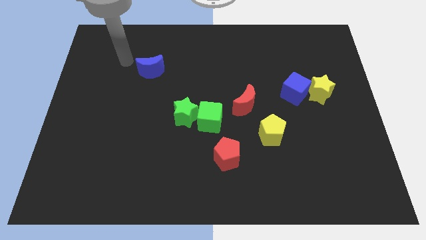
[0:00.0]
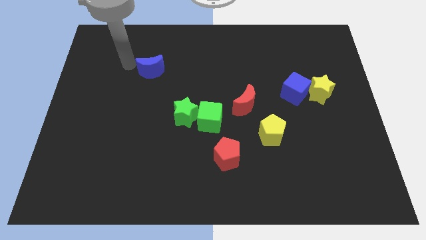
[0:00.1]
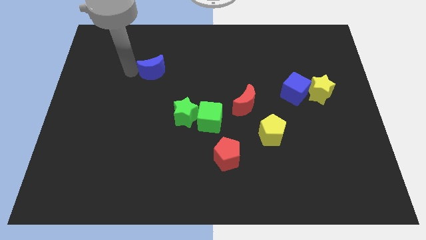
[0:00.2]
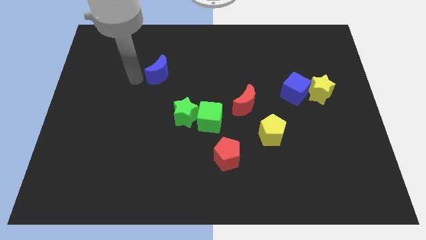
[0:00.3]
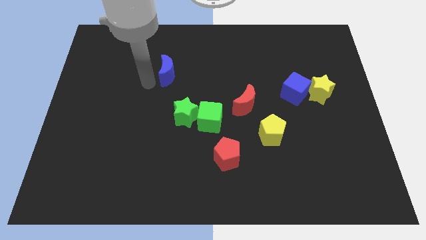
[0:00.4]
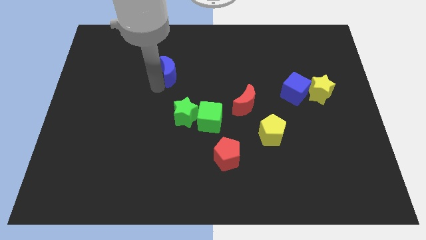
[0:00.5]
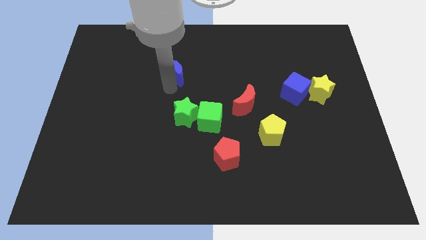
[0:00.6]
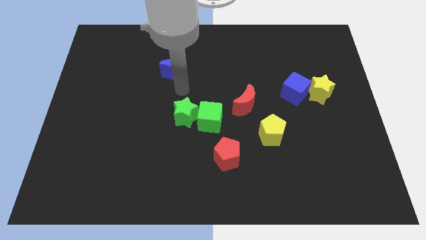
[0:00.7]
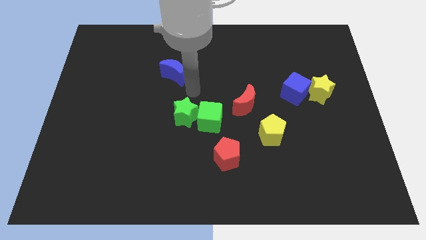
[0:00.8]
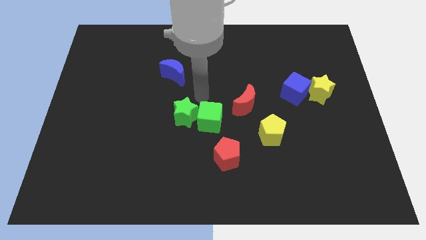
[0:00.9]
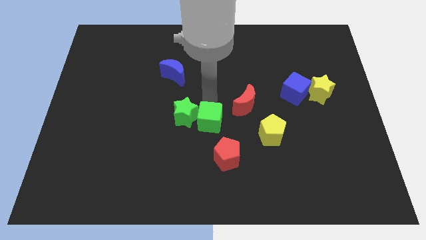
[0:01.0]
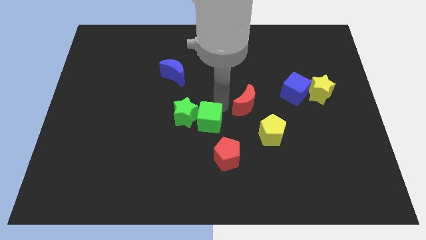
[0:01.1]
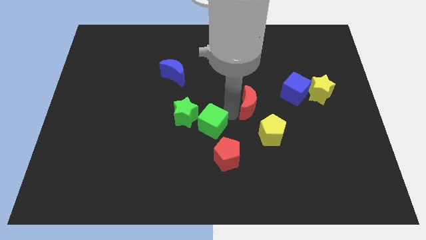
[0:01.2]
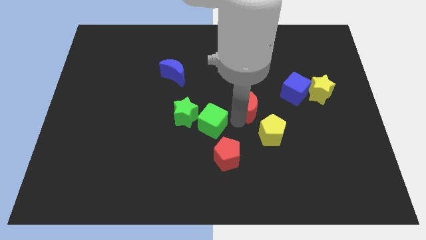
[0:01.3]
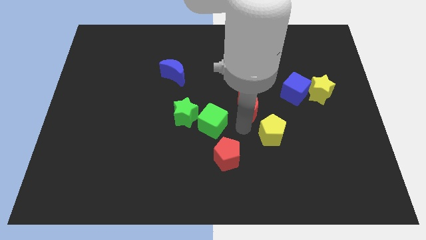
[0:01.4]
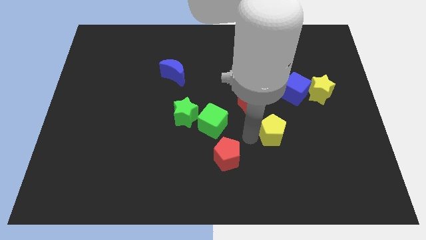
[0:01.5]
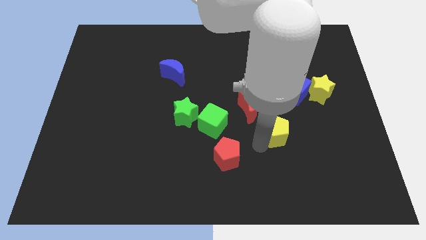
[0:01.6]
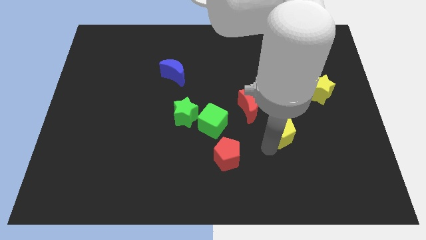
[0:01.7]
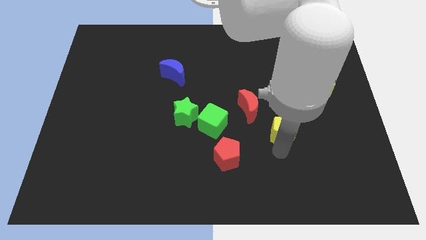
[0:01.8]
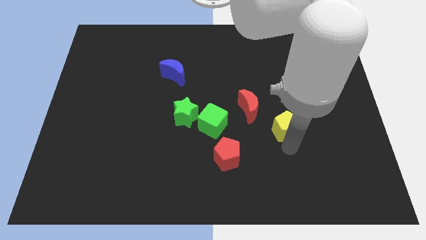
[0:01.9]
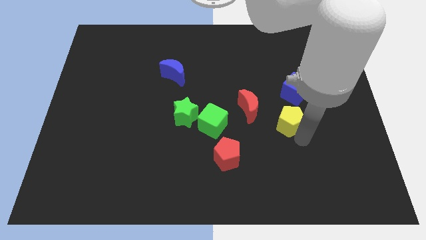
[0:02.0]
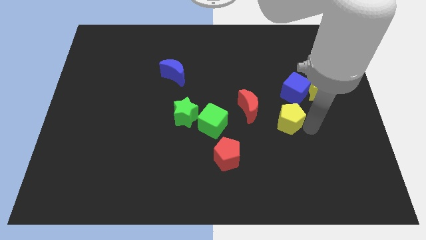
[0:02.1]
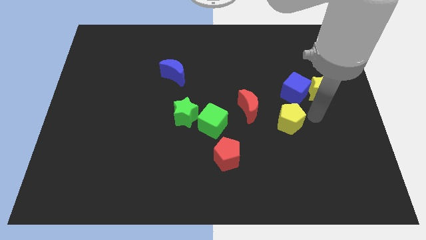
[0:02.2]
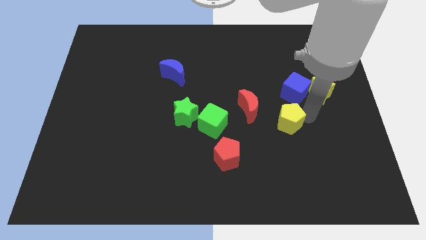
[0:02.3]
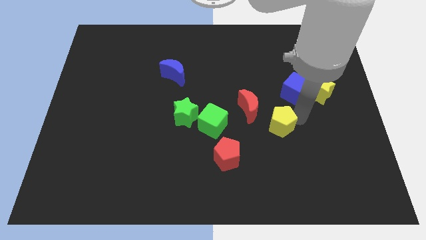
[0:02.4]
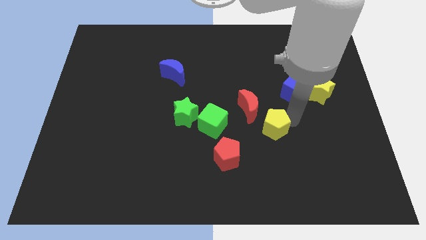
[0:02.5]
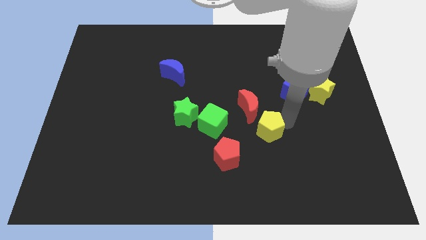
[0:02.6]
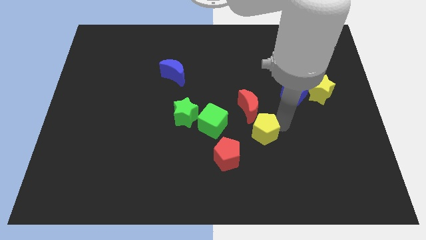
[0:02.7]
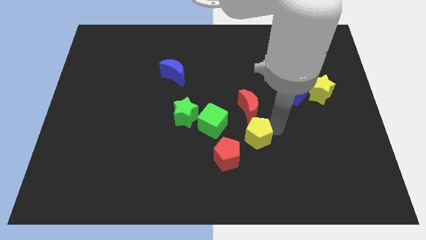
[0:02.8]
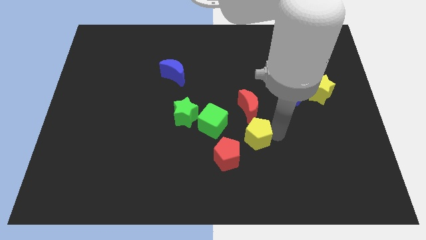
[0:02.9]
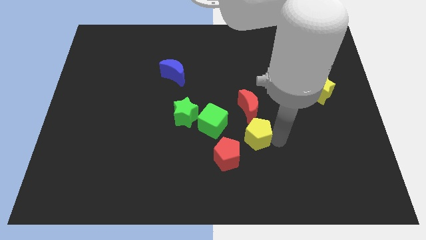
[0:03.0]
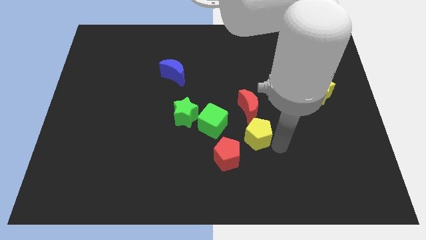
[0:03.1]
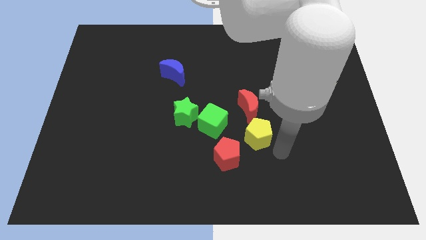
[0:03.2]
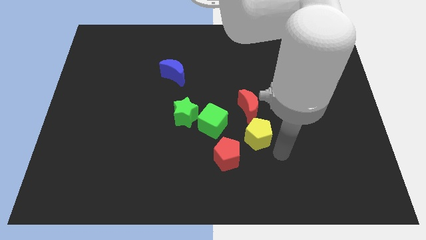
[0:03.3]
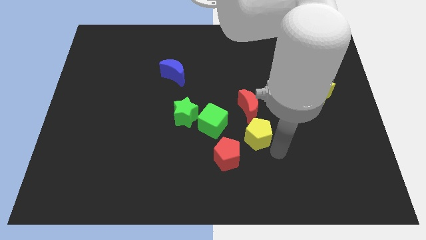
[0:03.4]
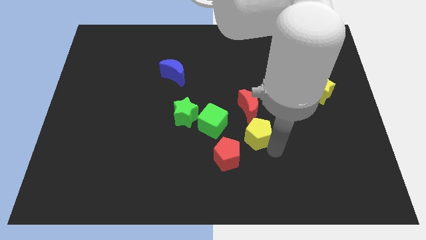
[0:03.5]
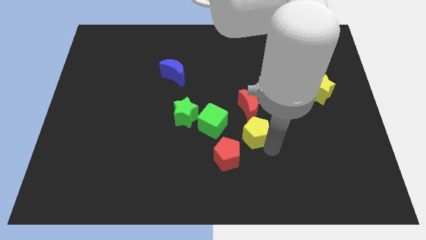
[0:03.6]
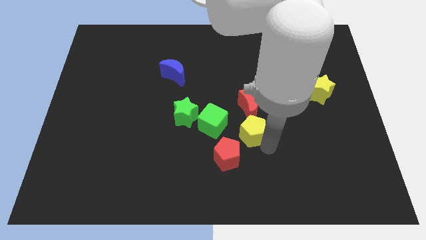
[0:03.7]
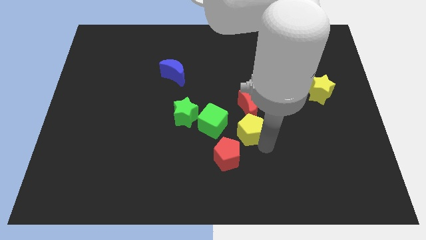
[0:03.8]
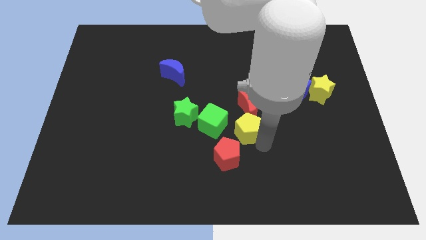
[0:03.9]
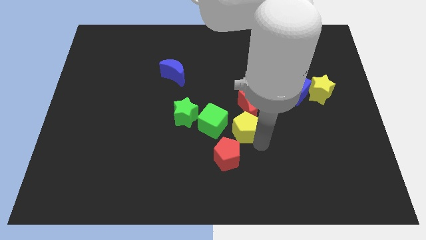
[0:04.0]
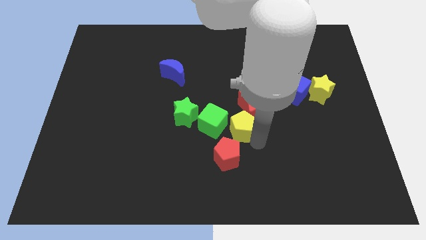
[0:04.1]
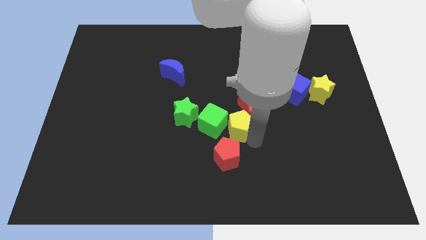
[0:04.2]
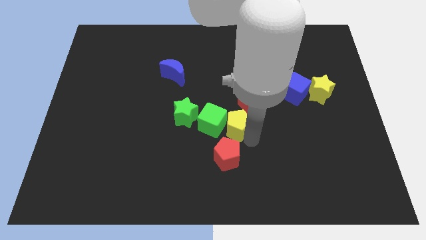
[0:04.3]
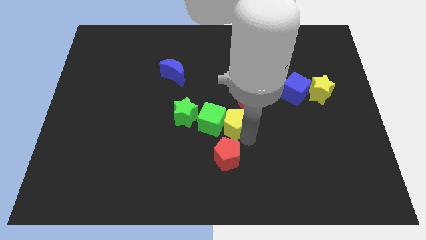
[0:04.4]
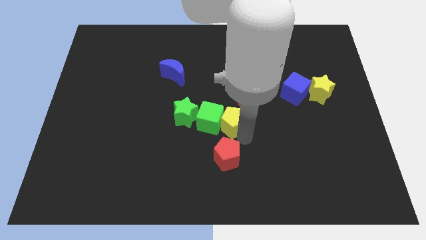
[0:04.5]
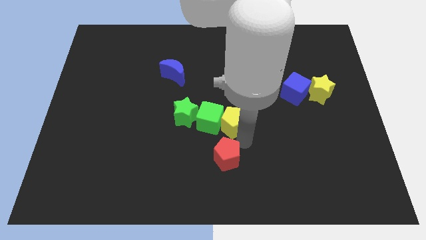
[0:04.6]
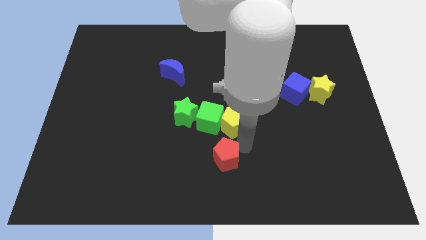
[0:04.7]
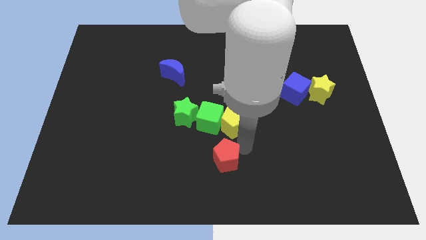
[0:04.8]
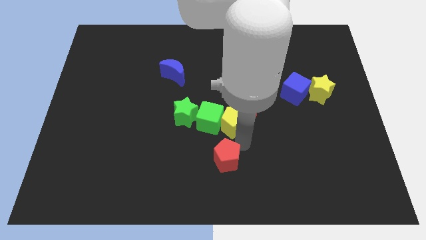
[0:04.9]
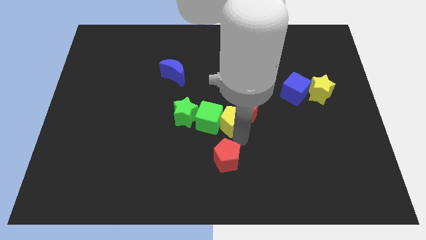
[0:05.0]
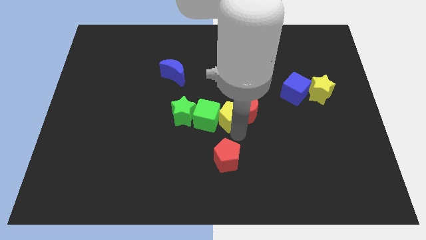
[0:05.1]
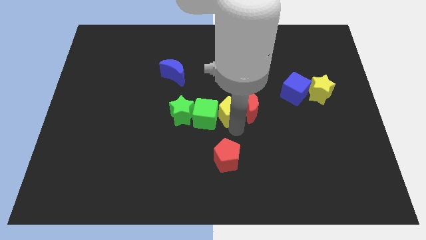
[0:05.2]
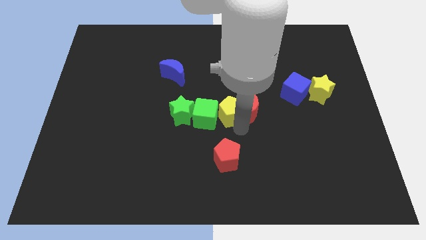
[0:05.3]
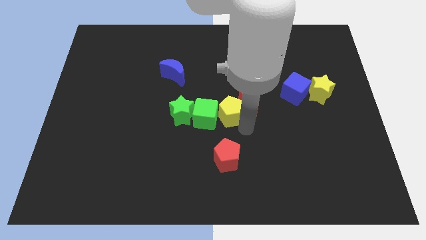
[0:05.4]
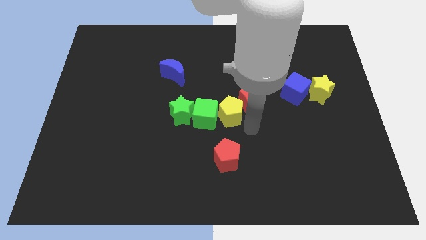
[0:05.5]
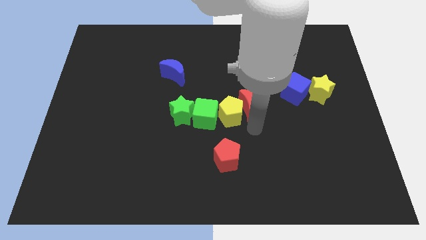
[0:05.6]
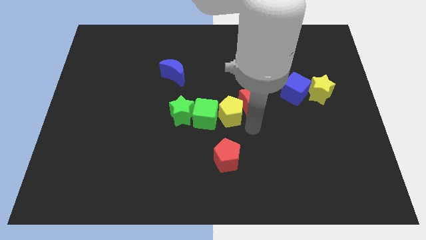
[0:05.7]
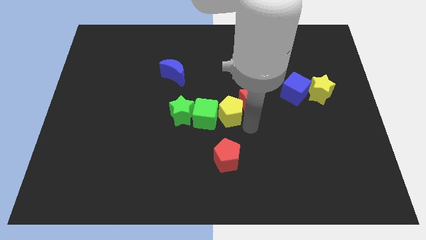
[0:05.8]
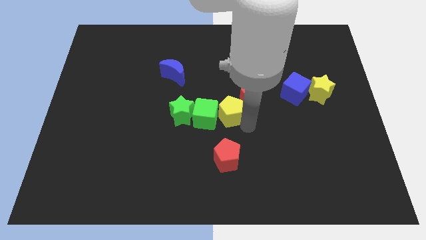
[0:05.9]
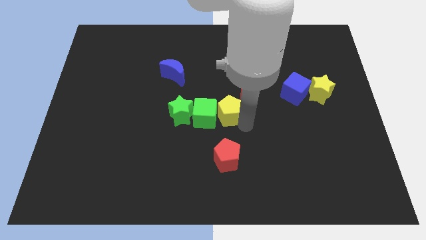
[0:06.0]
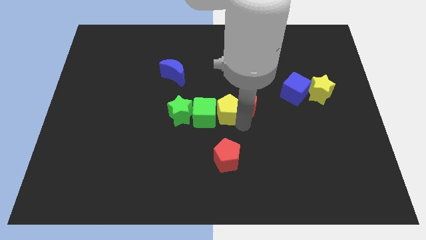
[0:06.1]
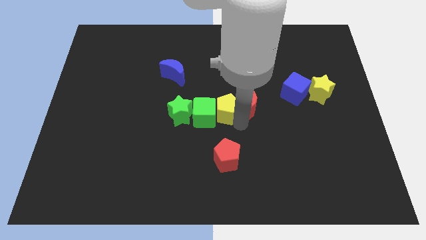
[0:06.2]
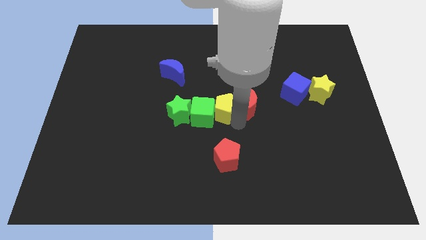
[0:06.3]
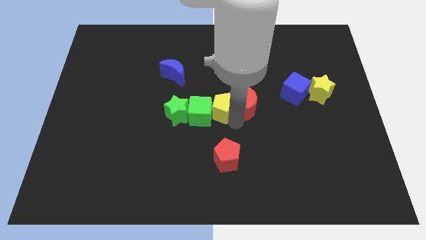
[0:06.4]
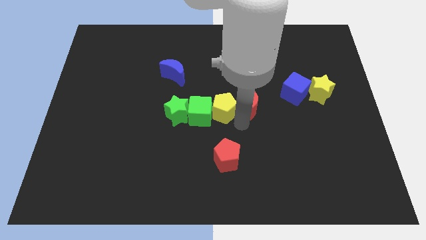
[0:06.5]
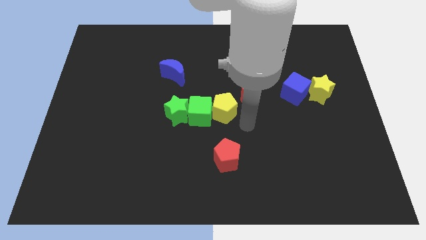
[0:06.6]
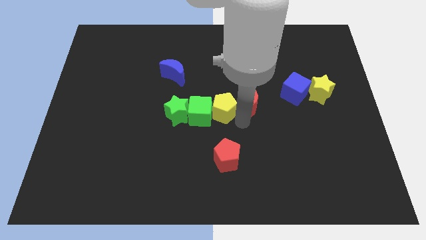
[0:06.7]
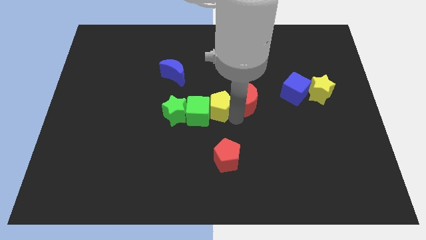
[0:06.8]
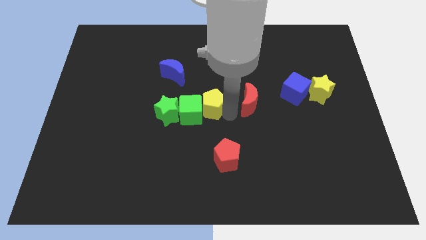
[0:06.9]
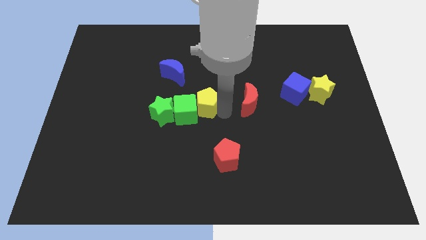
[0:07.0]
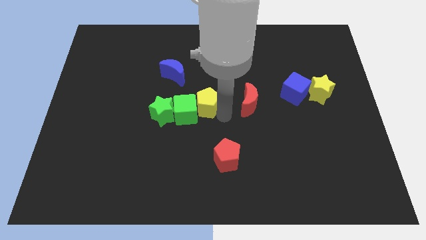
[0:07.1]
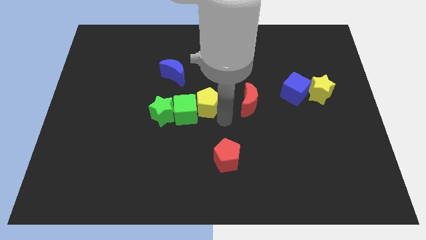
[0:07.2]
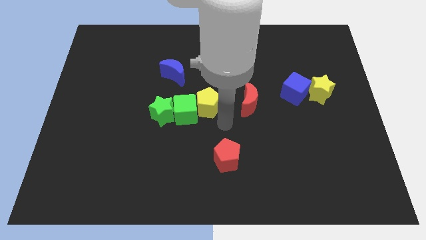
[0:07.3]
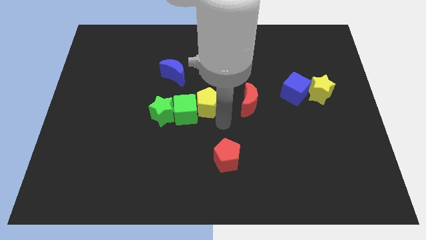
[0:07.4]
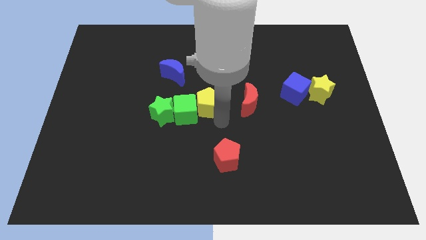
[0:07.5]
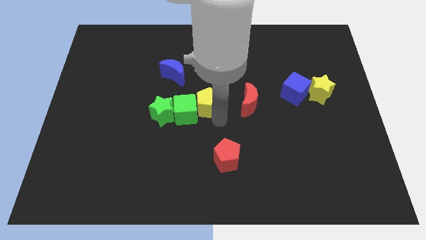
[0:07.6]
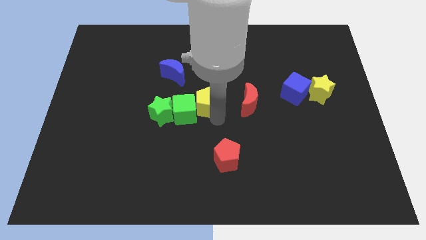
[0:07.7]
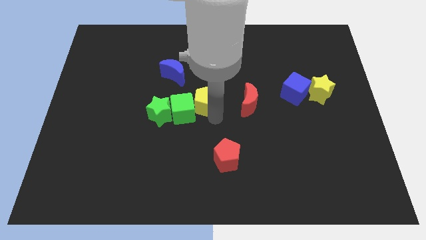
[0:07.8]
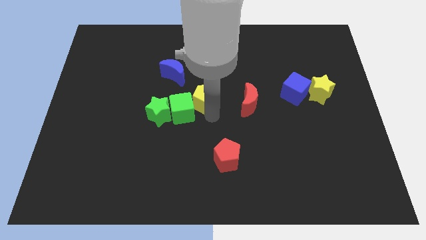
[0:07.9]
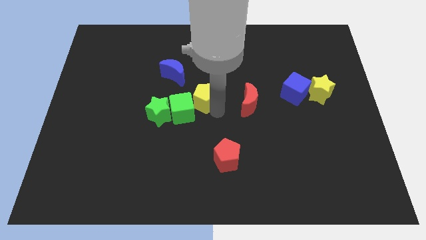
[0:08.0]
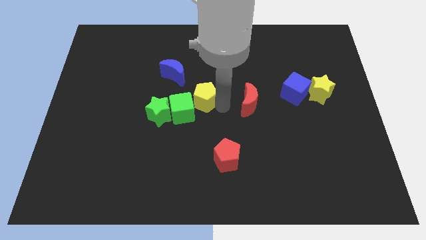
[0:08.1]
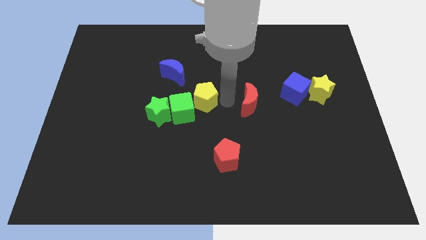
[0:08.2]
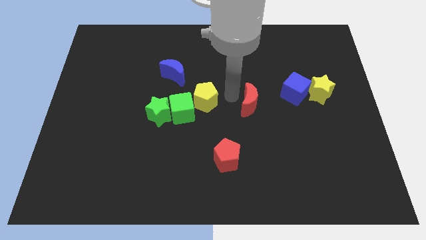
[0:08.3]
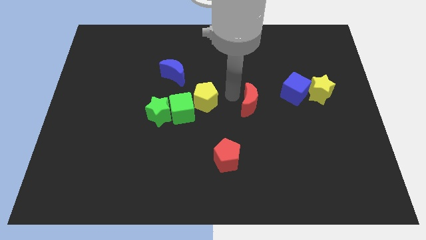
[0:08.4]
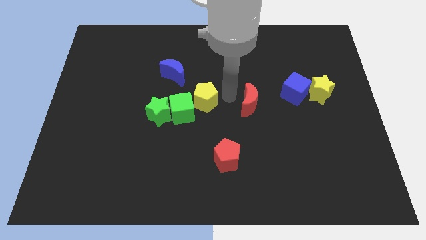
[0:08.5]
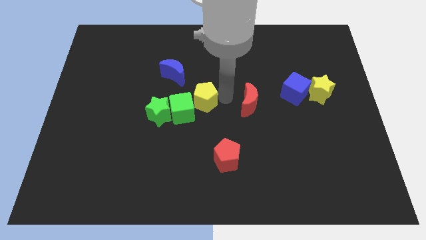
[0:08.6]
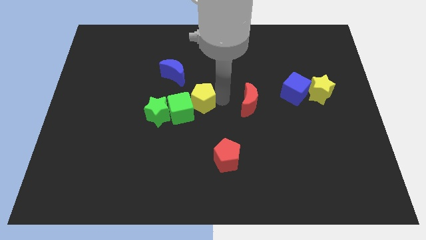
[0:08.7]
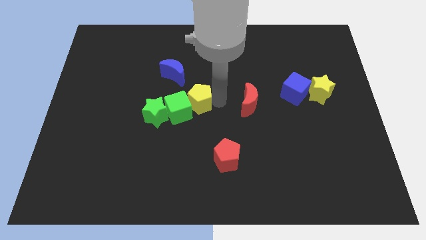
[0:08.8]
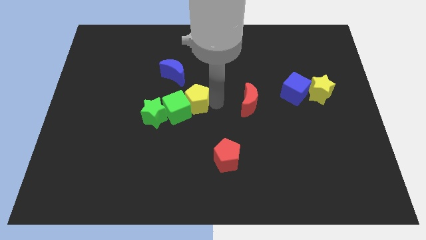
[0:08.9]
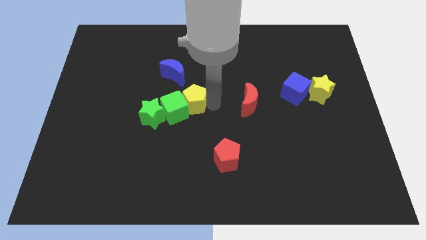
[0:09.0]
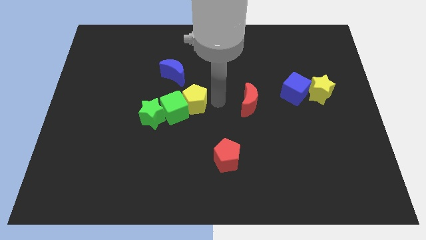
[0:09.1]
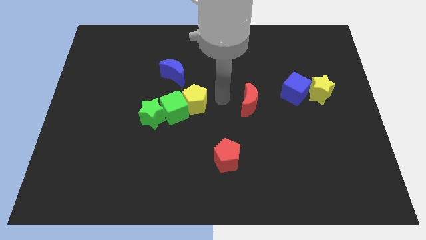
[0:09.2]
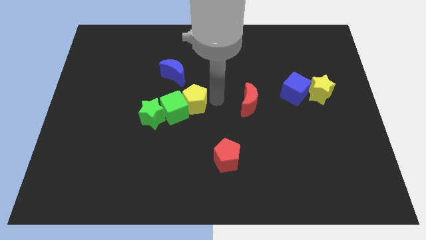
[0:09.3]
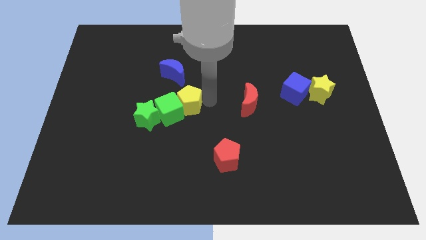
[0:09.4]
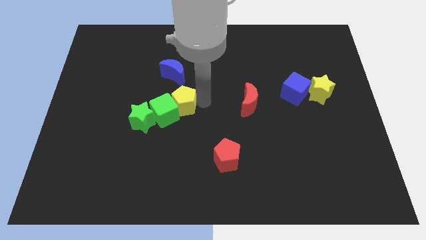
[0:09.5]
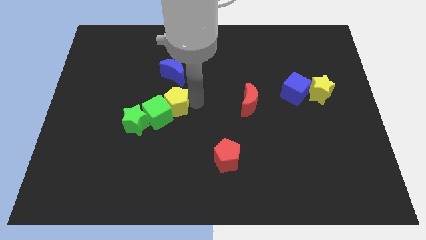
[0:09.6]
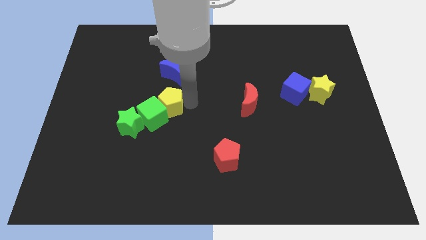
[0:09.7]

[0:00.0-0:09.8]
move the yellow pentagon left
